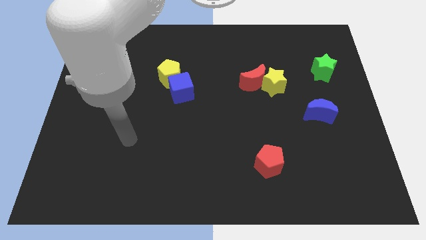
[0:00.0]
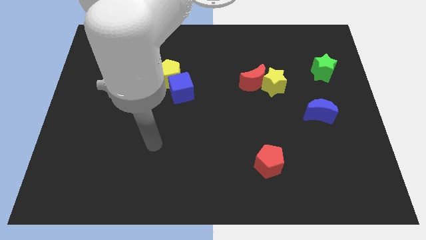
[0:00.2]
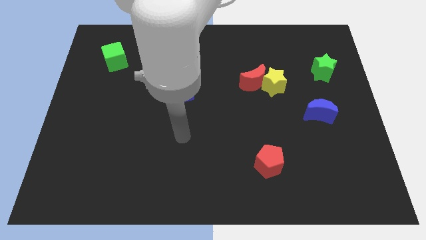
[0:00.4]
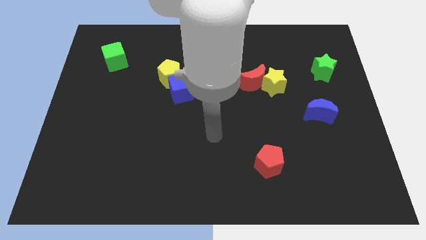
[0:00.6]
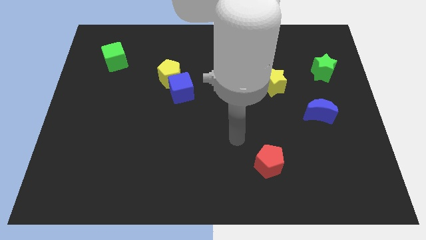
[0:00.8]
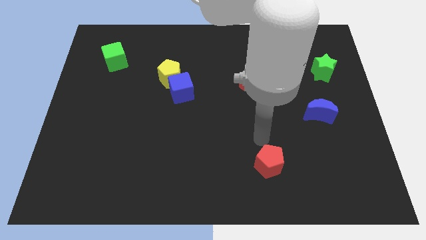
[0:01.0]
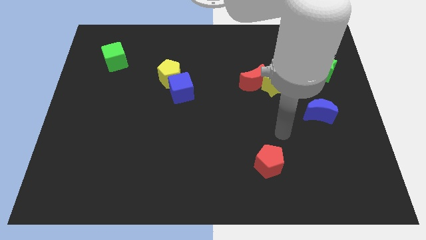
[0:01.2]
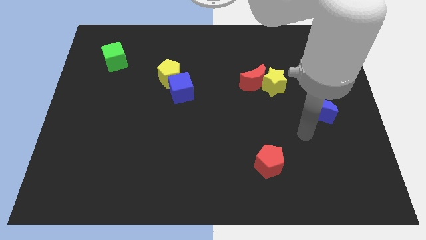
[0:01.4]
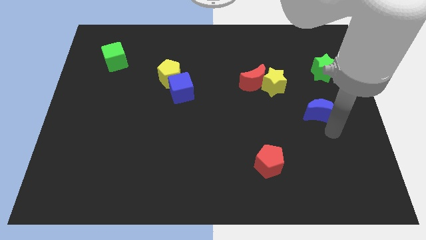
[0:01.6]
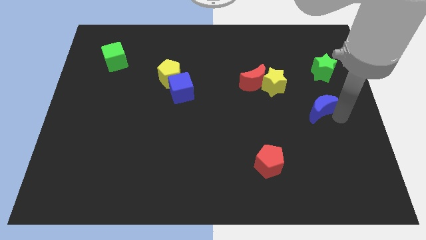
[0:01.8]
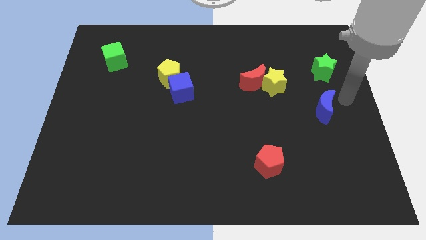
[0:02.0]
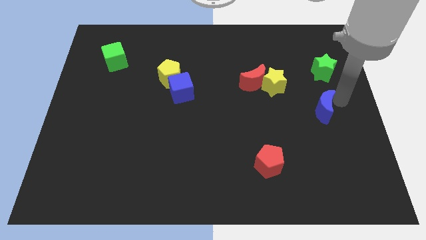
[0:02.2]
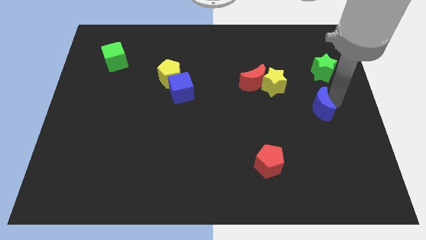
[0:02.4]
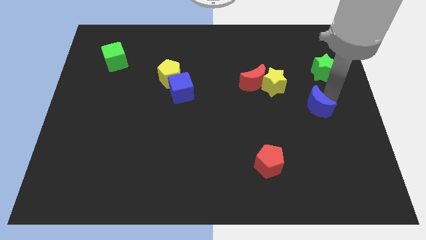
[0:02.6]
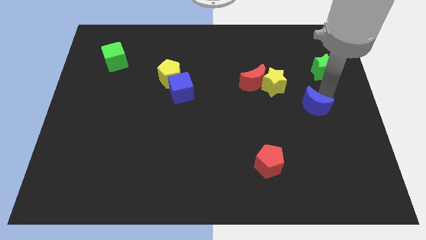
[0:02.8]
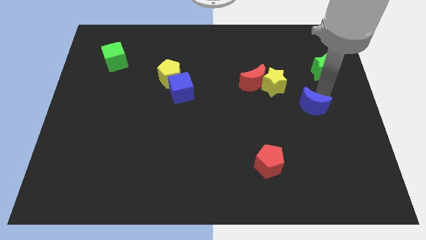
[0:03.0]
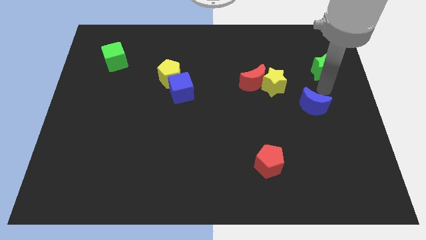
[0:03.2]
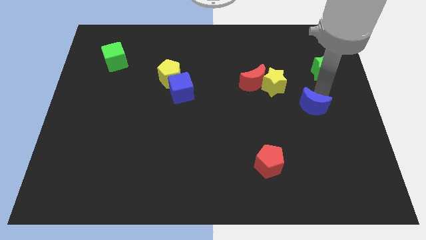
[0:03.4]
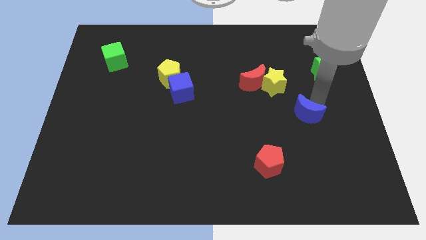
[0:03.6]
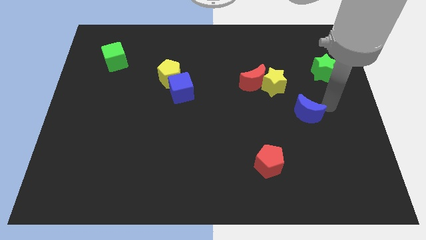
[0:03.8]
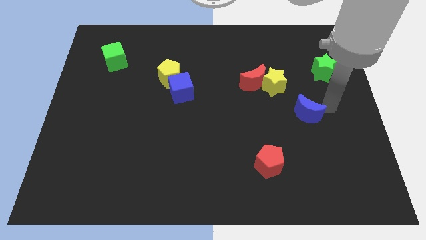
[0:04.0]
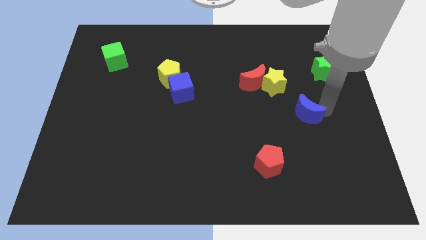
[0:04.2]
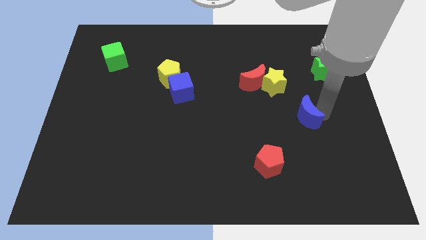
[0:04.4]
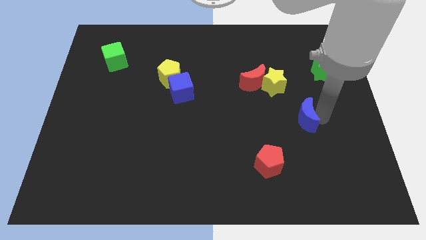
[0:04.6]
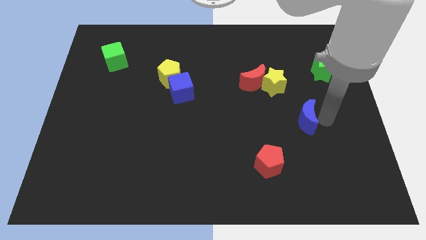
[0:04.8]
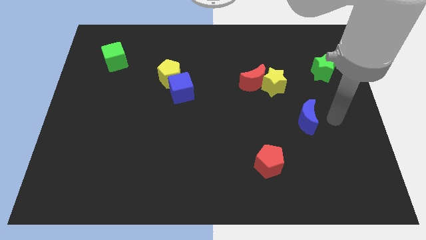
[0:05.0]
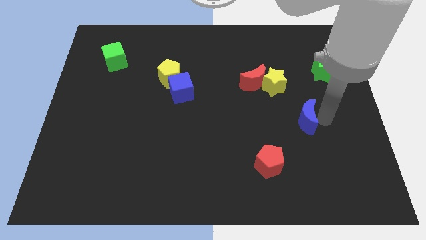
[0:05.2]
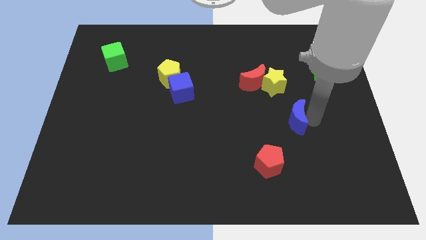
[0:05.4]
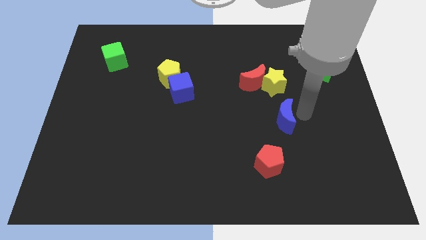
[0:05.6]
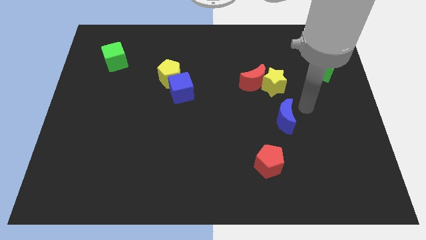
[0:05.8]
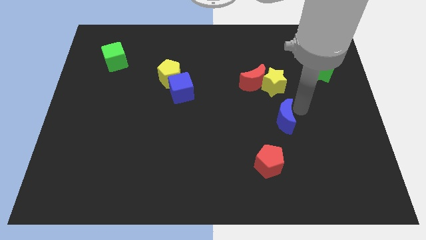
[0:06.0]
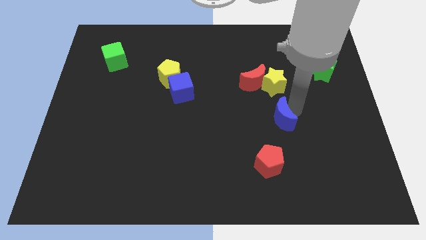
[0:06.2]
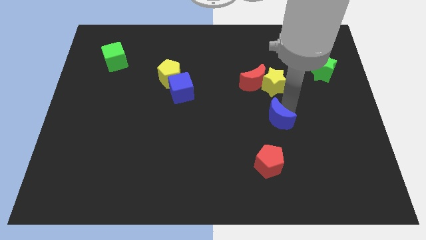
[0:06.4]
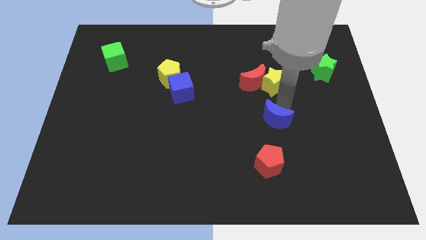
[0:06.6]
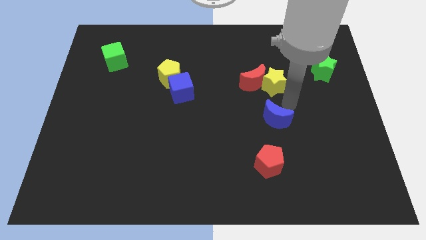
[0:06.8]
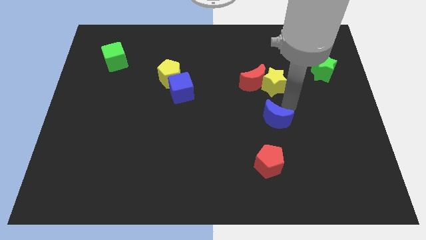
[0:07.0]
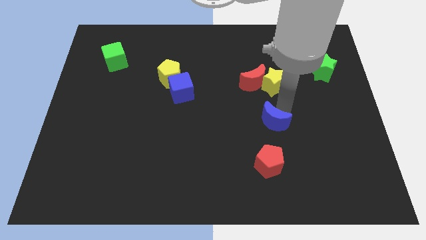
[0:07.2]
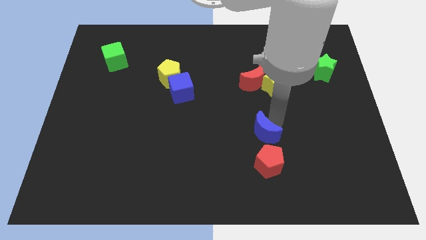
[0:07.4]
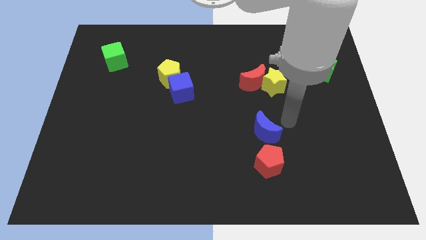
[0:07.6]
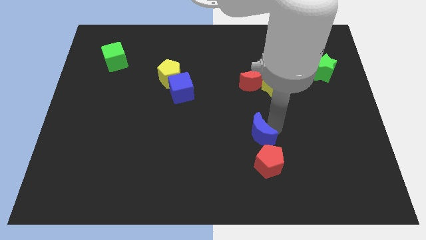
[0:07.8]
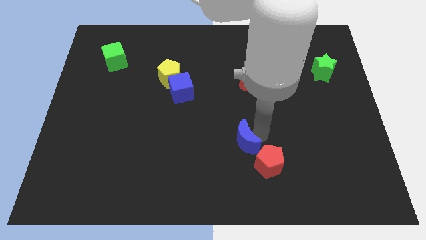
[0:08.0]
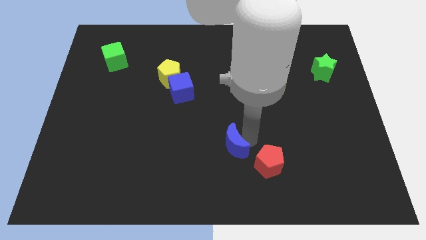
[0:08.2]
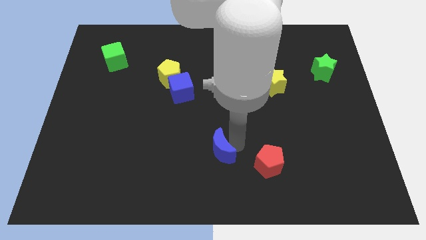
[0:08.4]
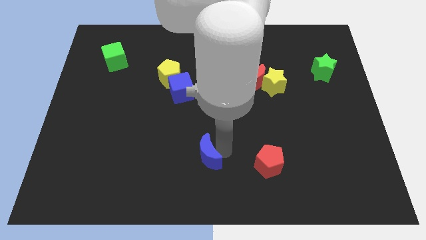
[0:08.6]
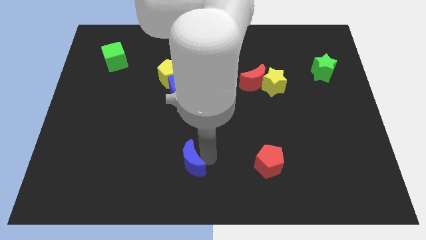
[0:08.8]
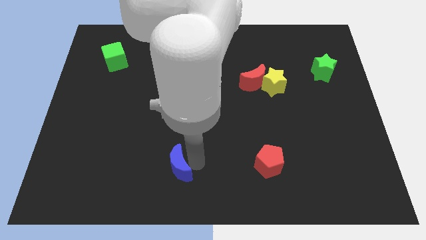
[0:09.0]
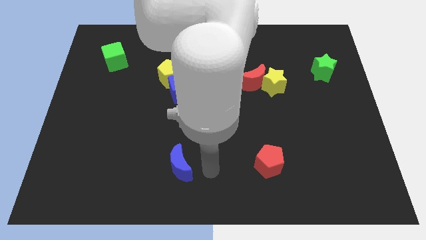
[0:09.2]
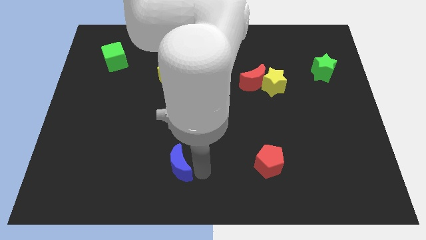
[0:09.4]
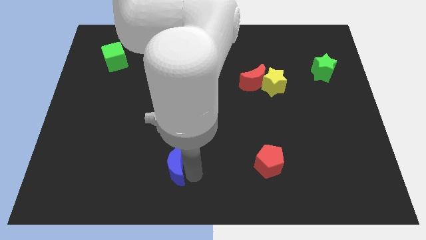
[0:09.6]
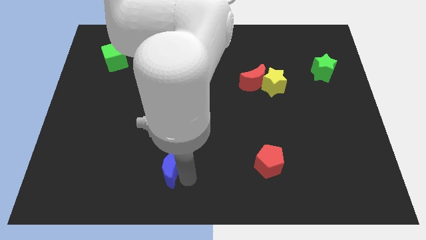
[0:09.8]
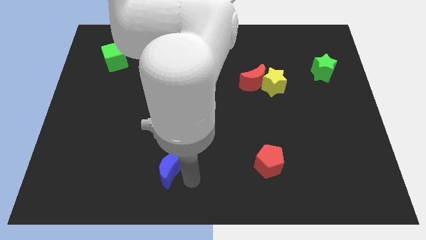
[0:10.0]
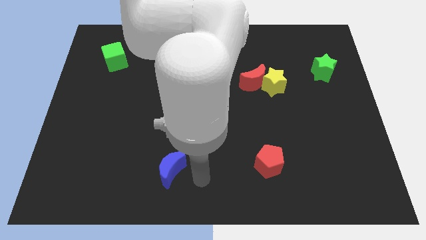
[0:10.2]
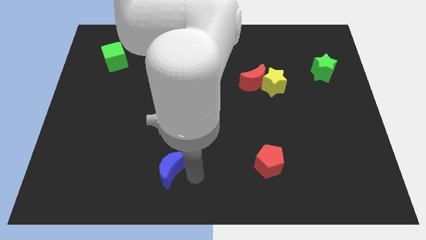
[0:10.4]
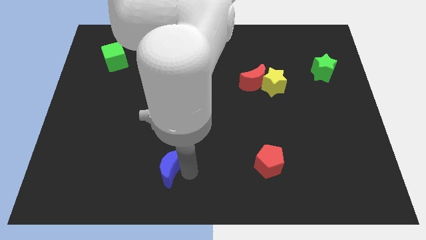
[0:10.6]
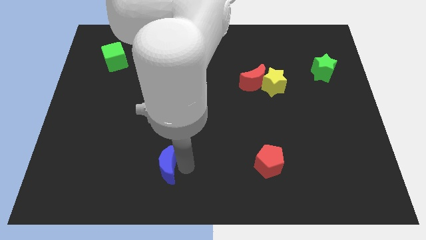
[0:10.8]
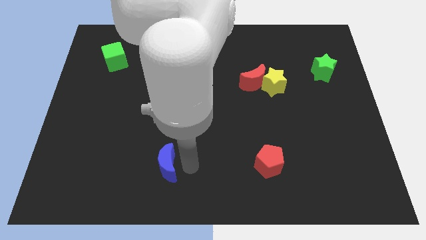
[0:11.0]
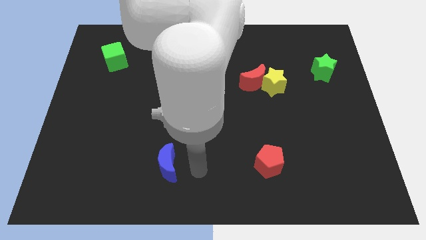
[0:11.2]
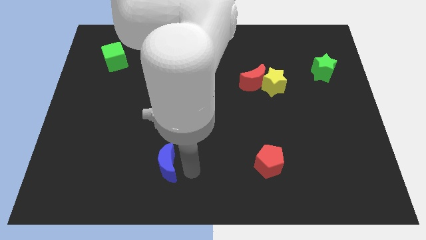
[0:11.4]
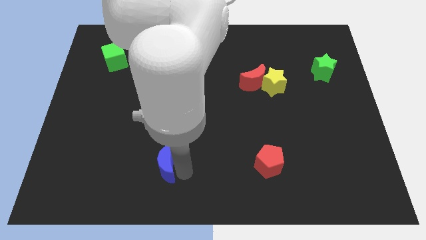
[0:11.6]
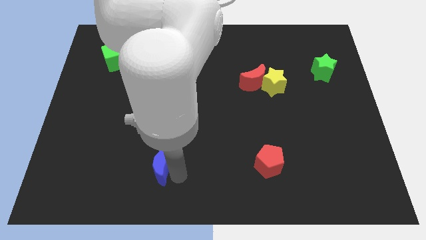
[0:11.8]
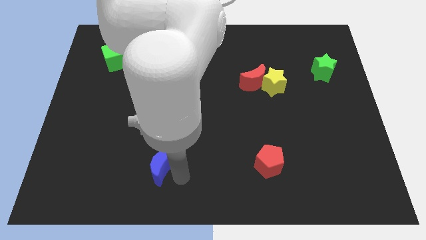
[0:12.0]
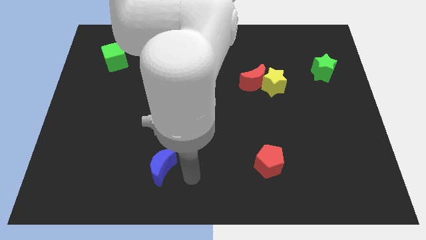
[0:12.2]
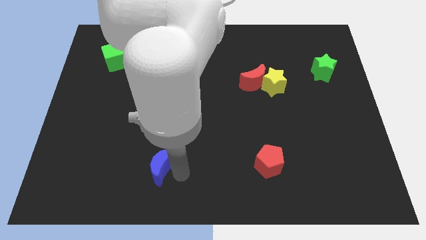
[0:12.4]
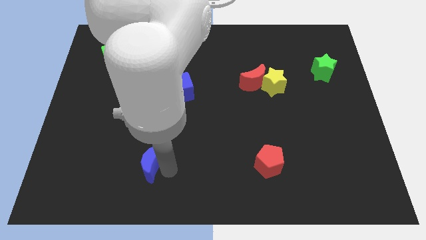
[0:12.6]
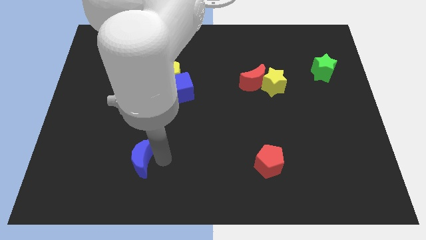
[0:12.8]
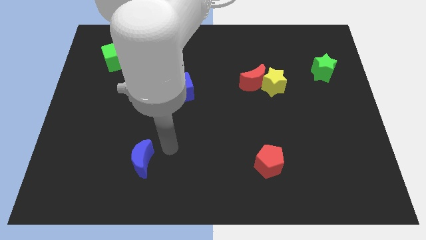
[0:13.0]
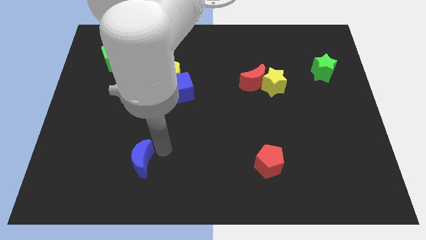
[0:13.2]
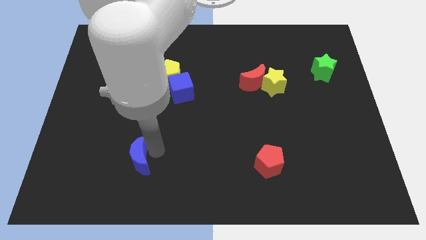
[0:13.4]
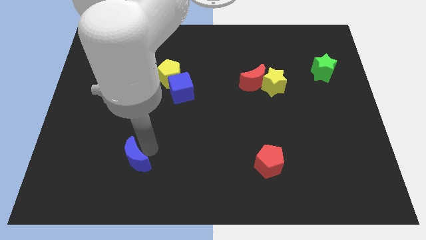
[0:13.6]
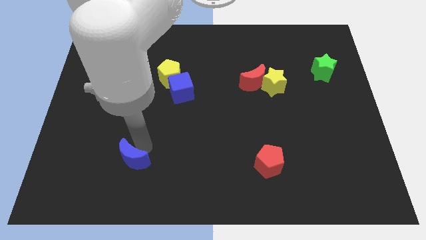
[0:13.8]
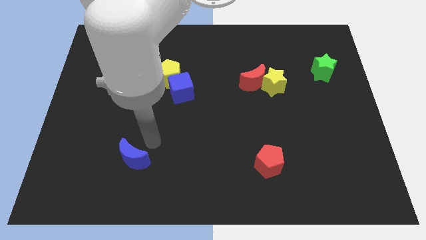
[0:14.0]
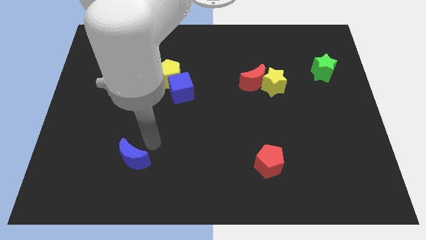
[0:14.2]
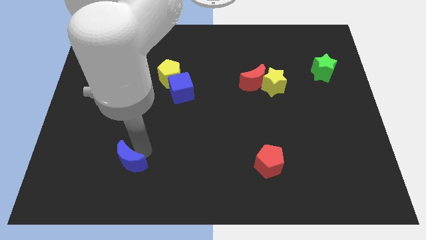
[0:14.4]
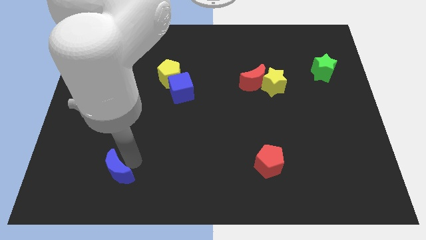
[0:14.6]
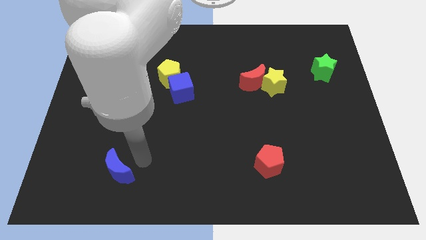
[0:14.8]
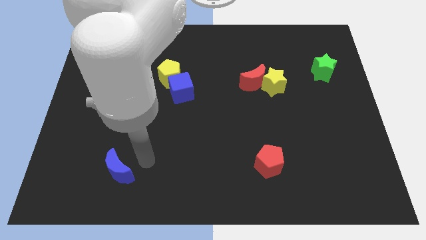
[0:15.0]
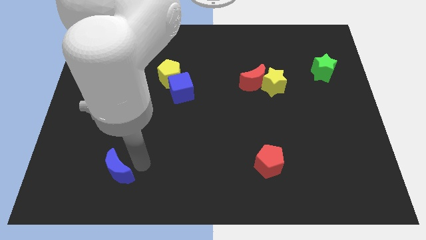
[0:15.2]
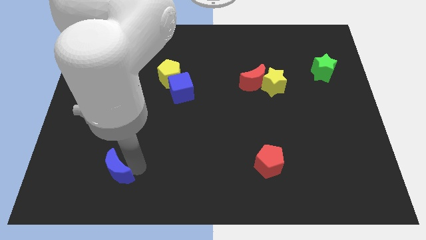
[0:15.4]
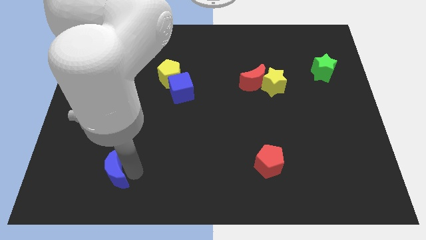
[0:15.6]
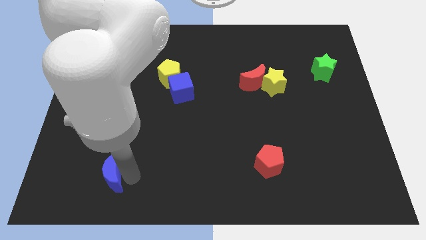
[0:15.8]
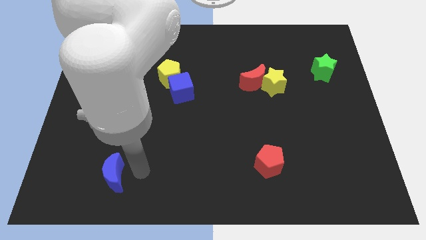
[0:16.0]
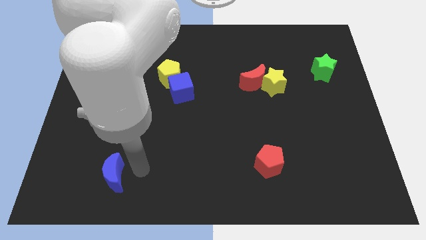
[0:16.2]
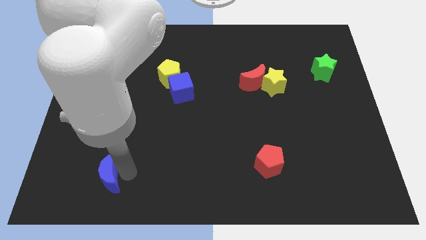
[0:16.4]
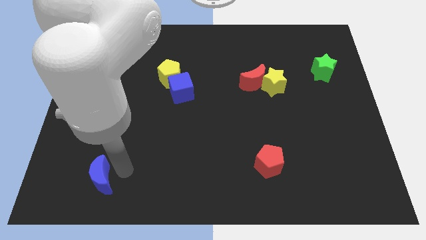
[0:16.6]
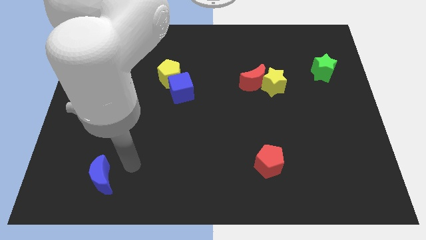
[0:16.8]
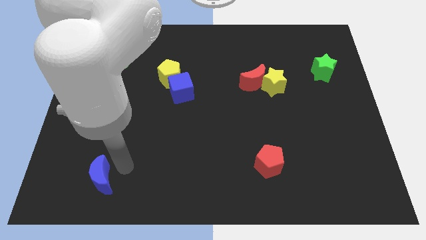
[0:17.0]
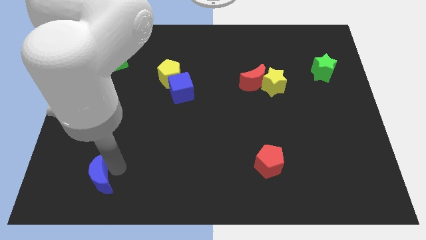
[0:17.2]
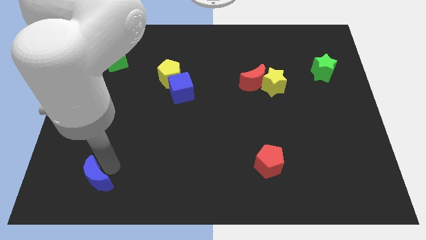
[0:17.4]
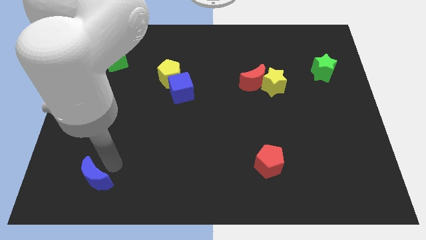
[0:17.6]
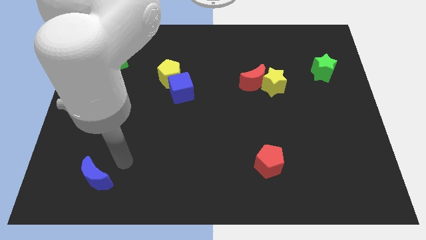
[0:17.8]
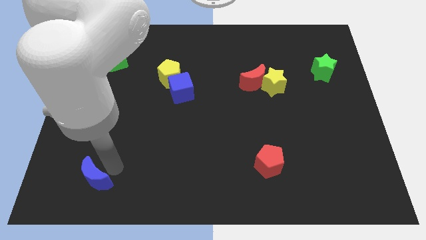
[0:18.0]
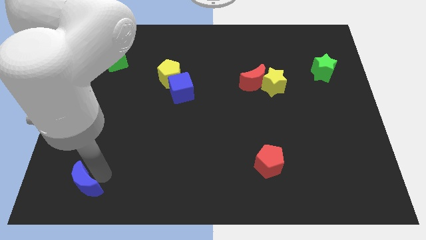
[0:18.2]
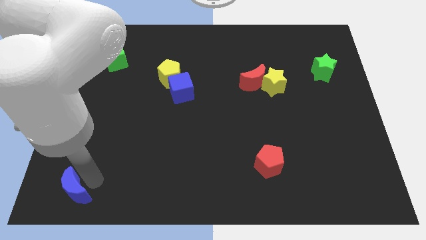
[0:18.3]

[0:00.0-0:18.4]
slide the blue moon to the lower left corner
